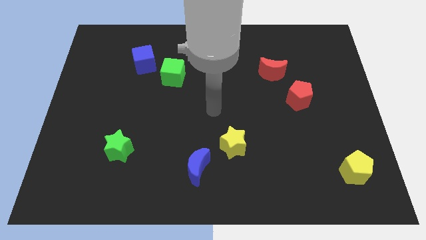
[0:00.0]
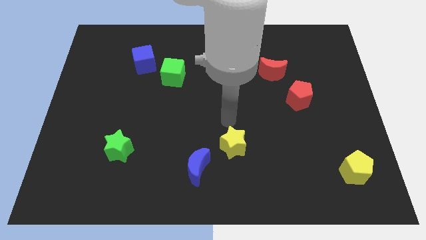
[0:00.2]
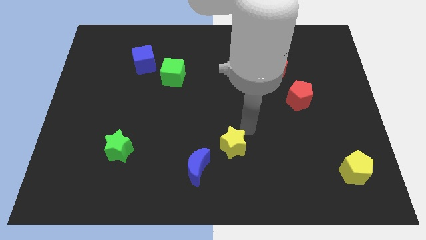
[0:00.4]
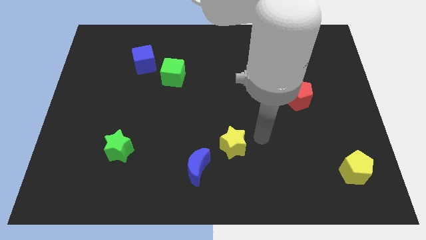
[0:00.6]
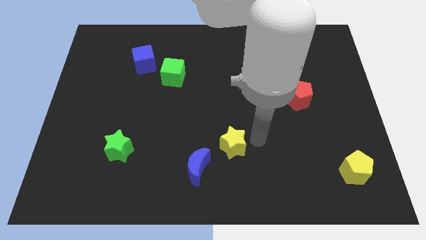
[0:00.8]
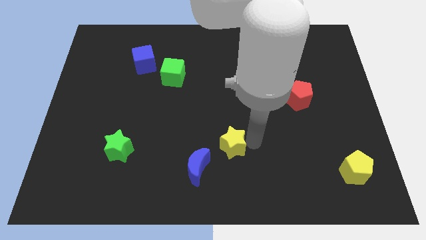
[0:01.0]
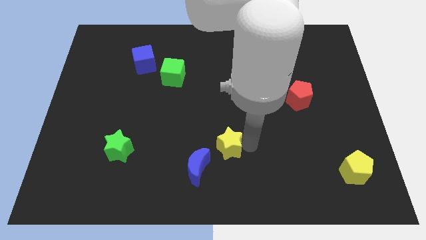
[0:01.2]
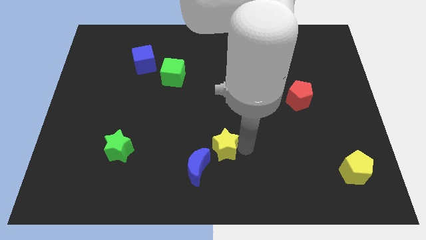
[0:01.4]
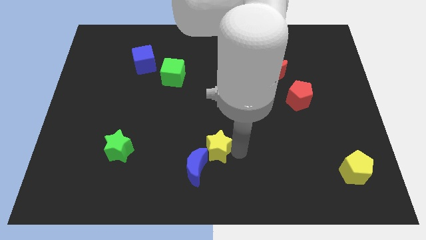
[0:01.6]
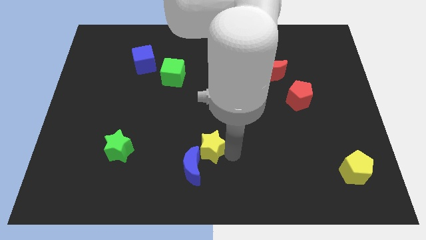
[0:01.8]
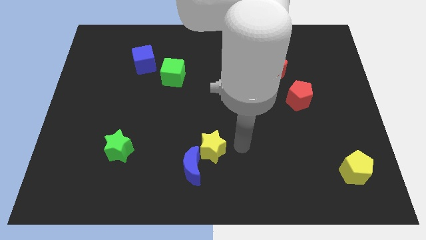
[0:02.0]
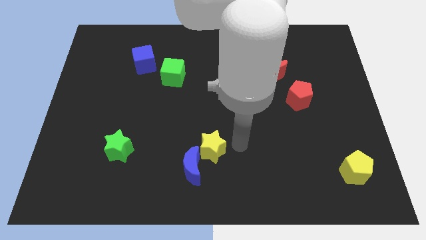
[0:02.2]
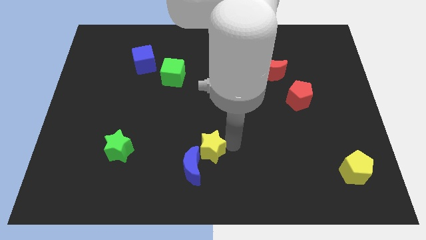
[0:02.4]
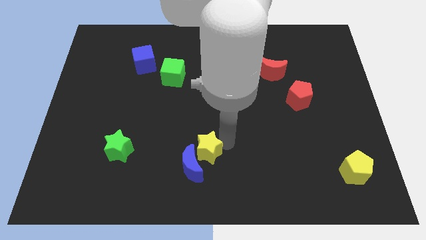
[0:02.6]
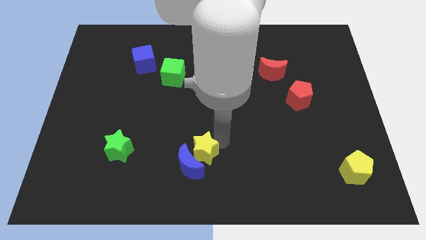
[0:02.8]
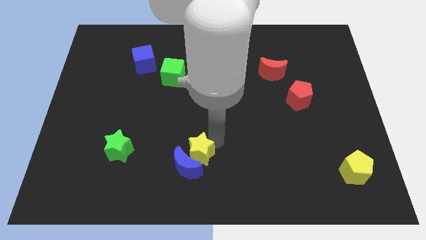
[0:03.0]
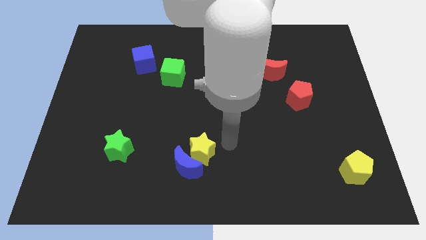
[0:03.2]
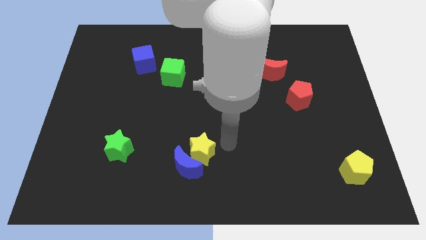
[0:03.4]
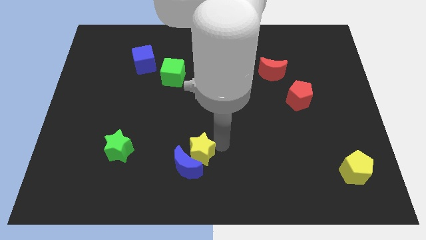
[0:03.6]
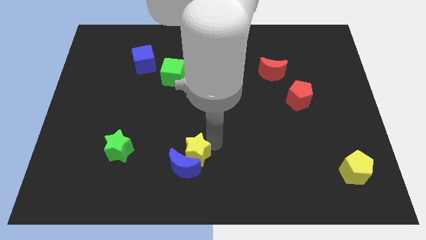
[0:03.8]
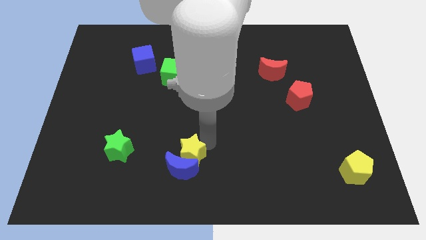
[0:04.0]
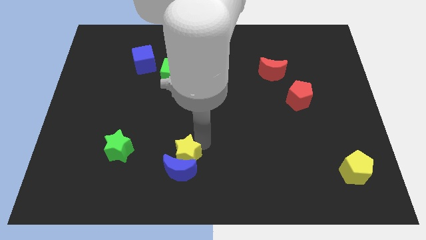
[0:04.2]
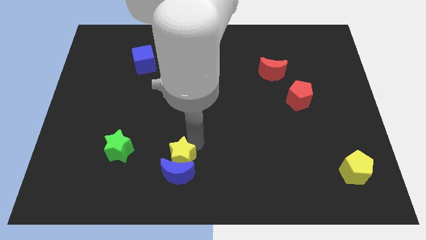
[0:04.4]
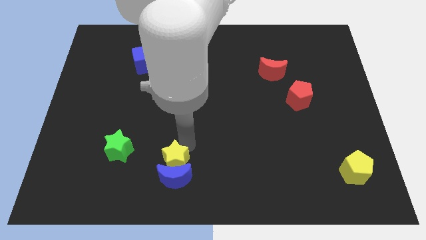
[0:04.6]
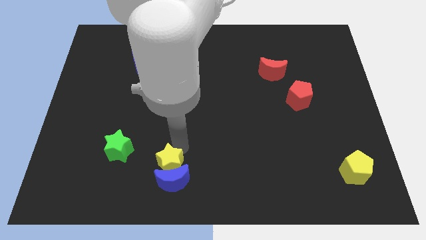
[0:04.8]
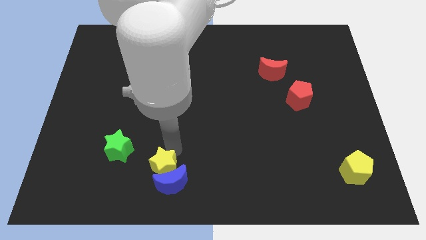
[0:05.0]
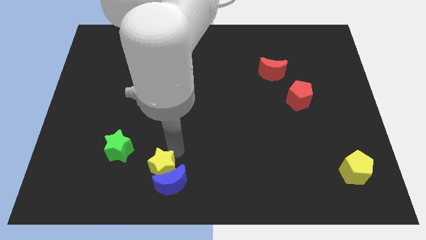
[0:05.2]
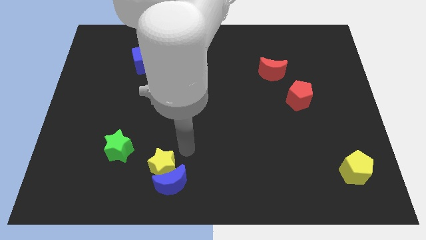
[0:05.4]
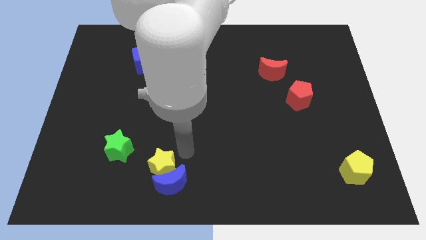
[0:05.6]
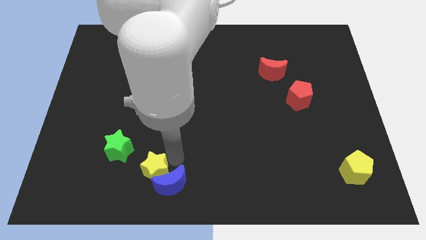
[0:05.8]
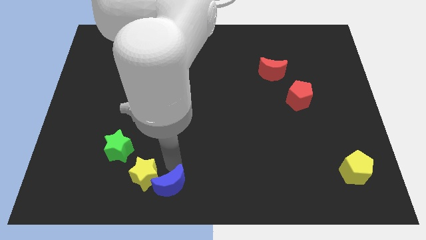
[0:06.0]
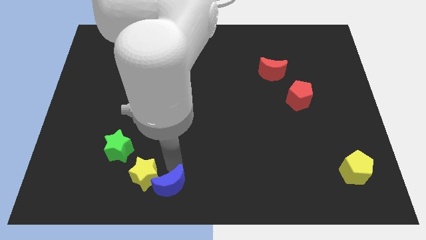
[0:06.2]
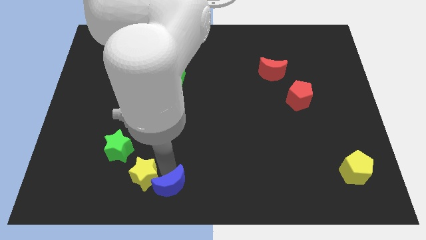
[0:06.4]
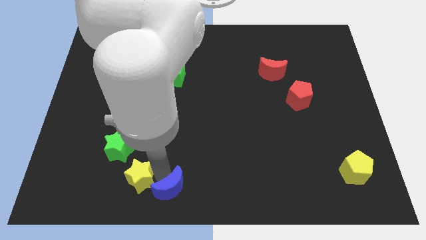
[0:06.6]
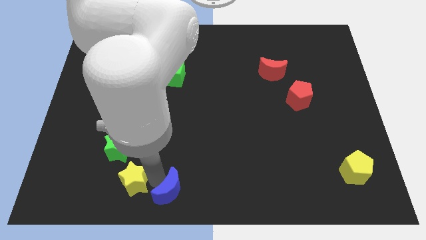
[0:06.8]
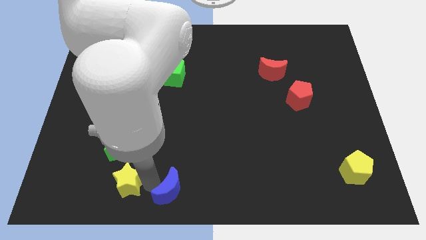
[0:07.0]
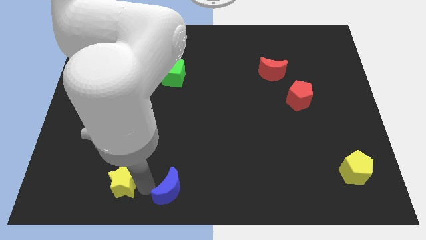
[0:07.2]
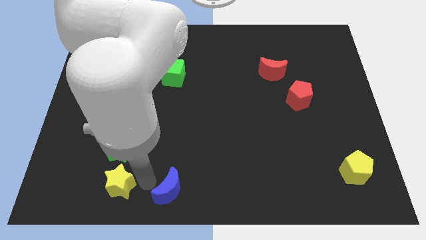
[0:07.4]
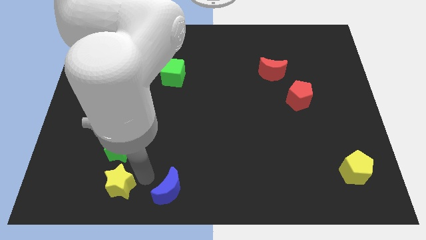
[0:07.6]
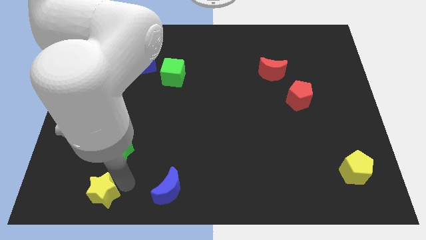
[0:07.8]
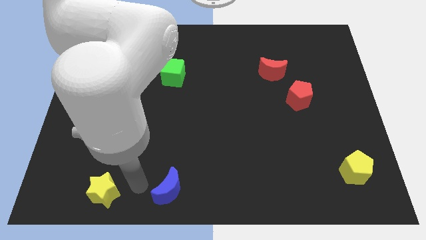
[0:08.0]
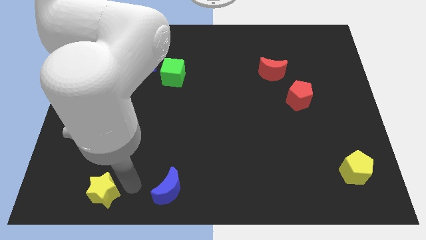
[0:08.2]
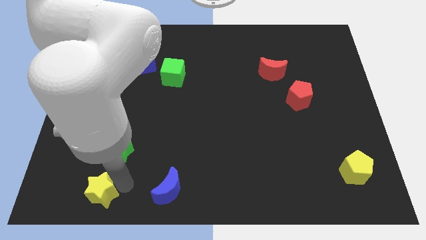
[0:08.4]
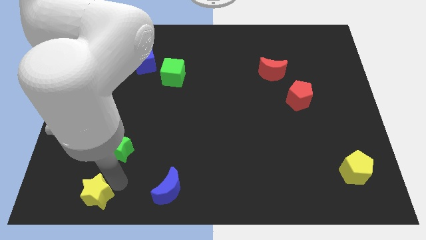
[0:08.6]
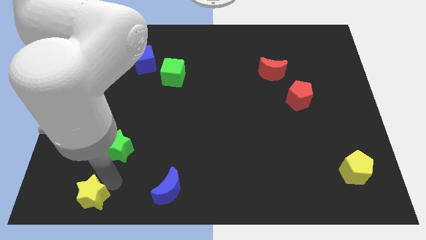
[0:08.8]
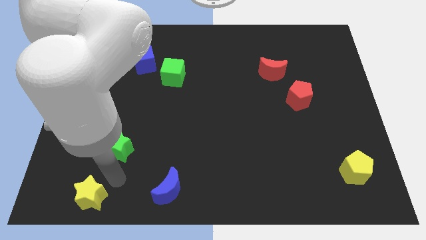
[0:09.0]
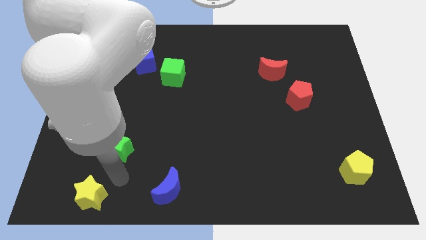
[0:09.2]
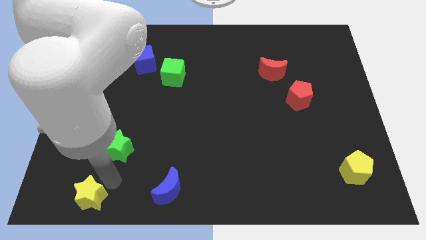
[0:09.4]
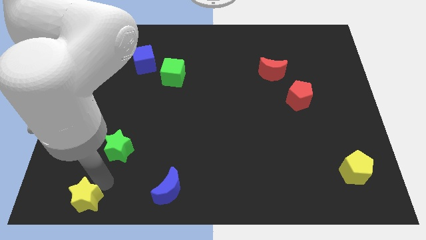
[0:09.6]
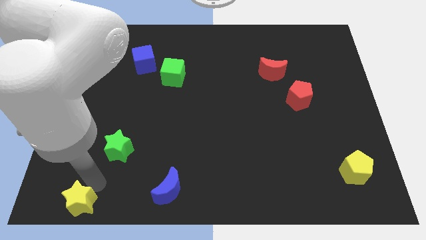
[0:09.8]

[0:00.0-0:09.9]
push the yellow star to the bottom left

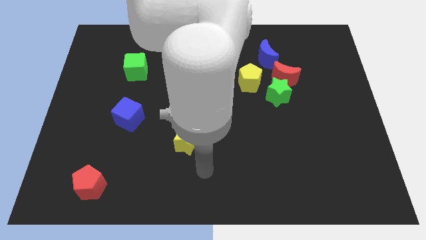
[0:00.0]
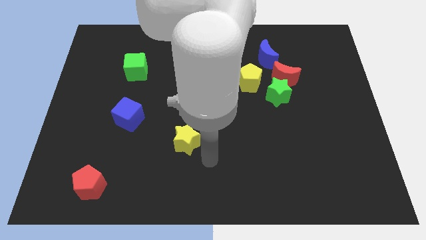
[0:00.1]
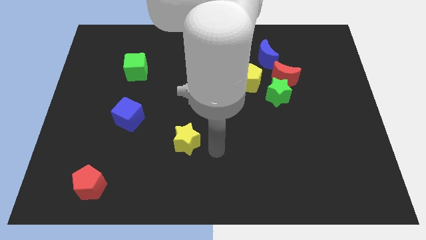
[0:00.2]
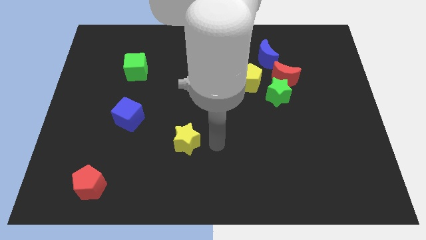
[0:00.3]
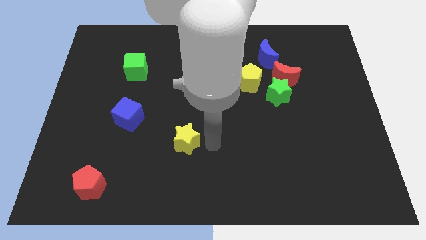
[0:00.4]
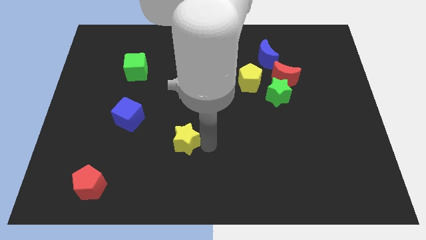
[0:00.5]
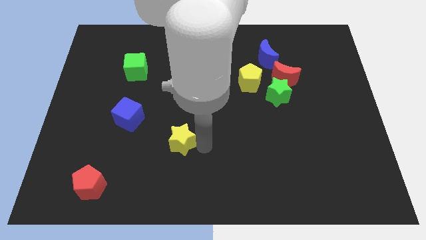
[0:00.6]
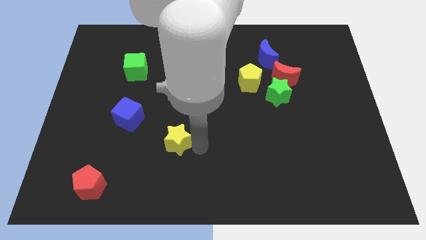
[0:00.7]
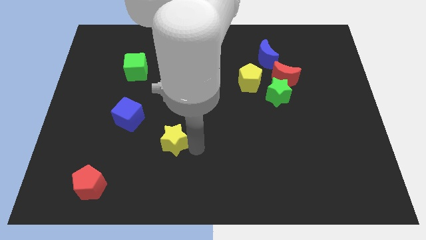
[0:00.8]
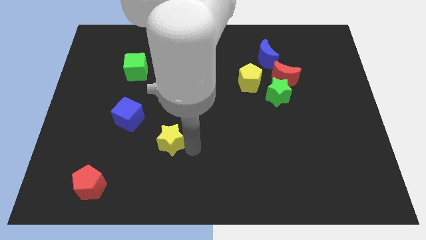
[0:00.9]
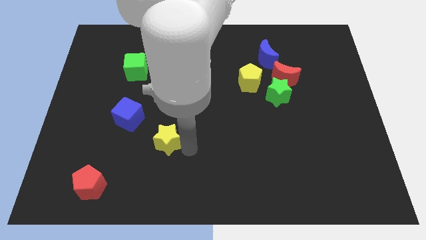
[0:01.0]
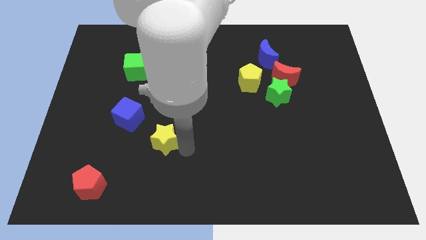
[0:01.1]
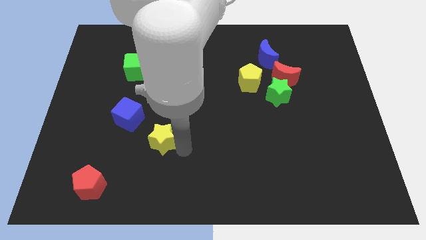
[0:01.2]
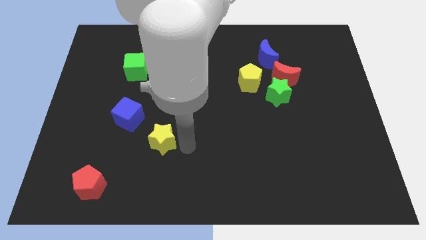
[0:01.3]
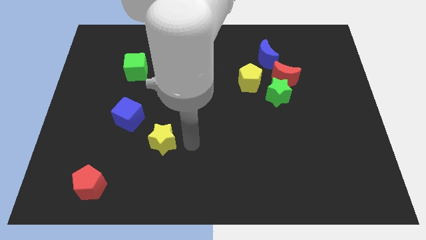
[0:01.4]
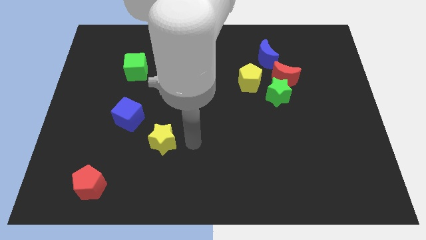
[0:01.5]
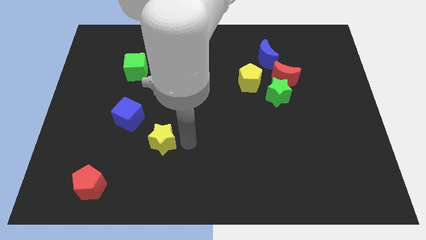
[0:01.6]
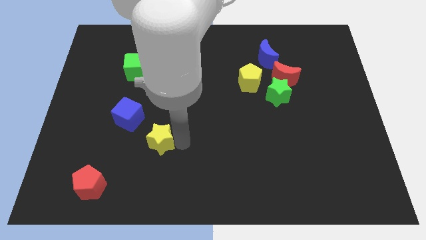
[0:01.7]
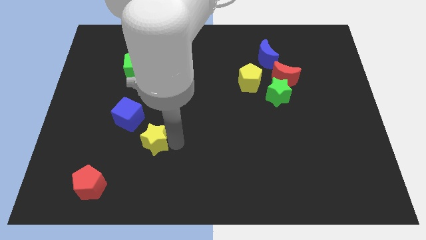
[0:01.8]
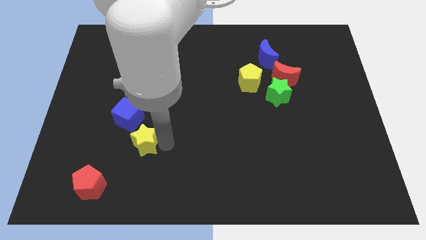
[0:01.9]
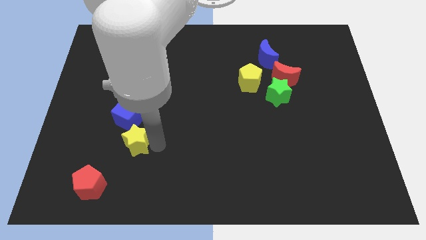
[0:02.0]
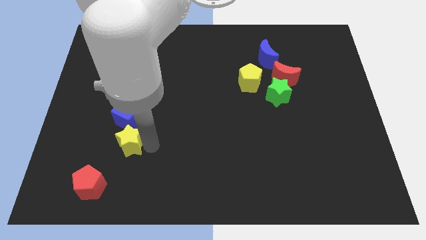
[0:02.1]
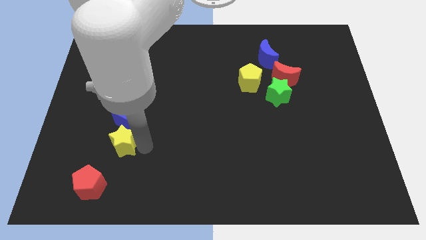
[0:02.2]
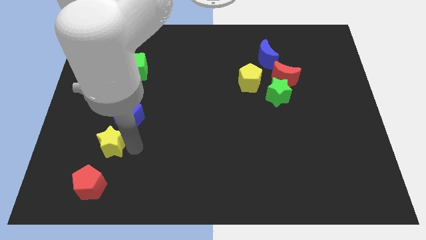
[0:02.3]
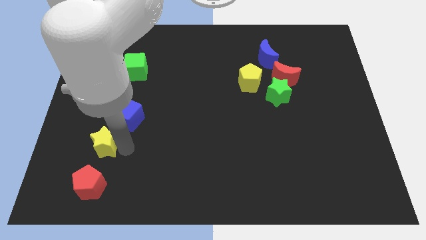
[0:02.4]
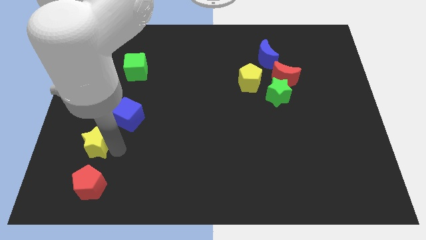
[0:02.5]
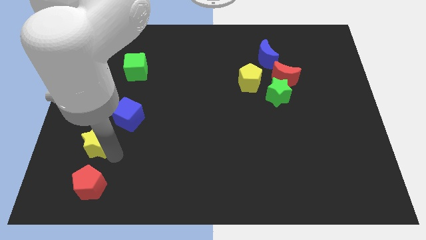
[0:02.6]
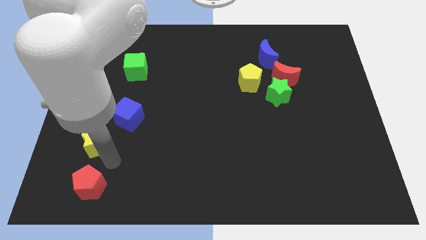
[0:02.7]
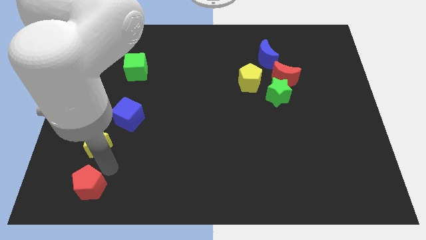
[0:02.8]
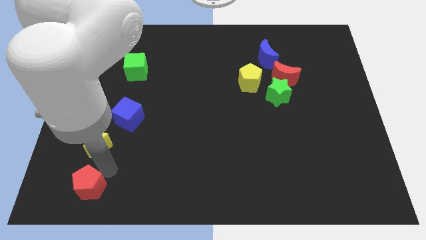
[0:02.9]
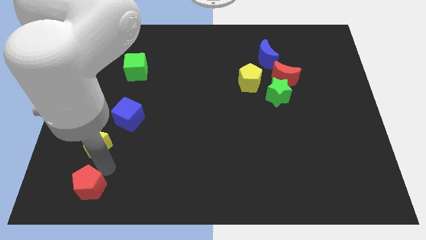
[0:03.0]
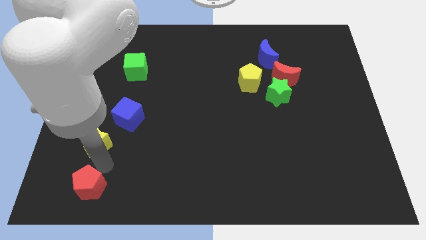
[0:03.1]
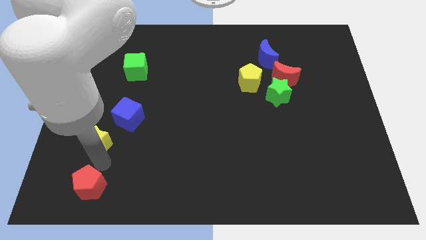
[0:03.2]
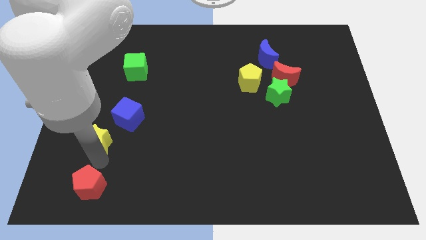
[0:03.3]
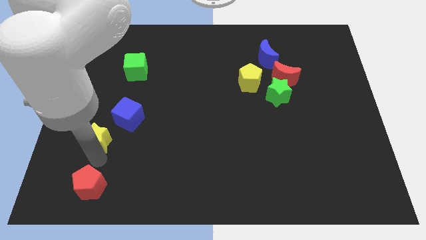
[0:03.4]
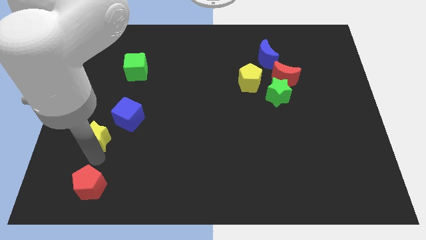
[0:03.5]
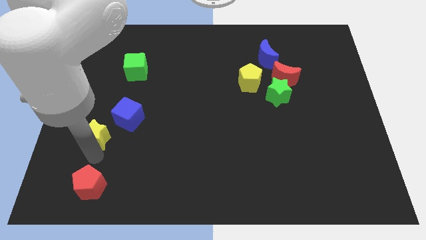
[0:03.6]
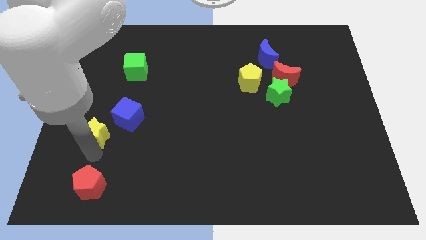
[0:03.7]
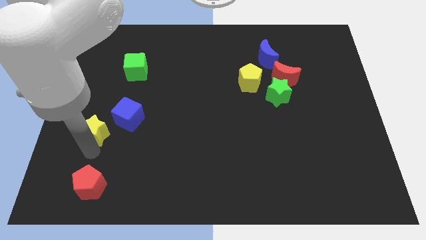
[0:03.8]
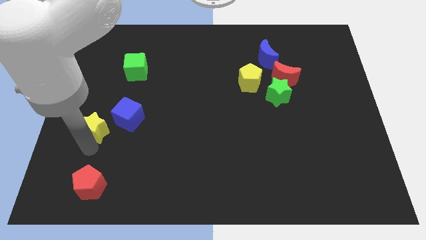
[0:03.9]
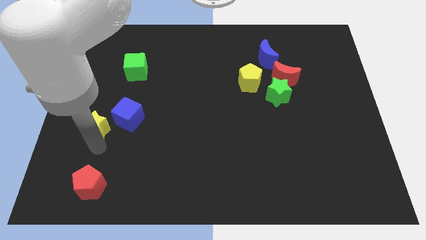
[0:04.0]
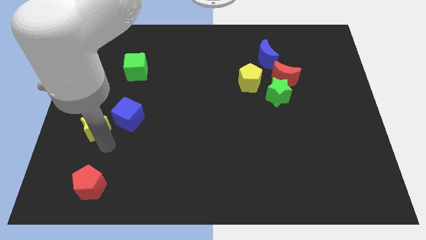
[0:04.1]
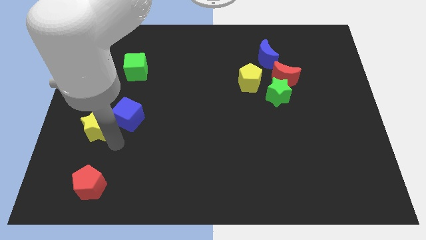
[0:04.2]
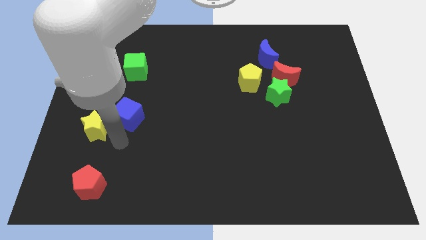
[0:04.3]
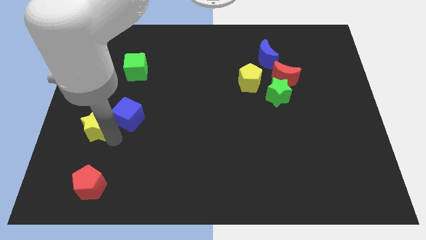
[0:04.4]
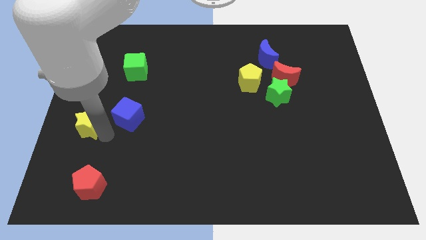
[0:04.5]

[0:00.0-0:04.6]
push the yellow star to the left side of the board
